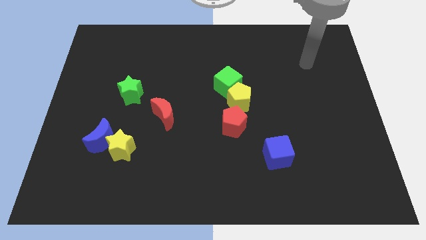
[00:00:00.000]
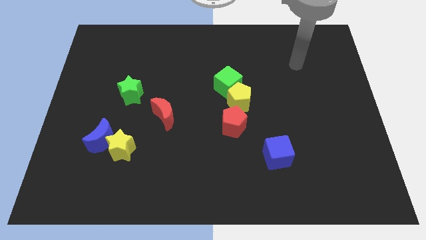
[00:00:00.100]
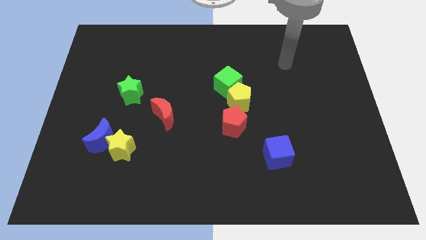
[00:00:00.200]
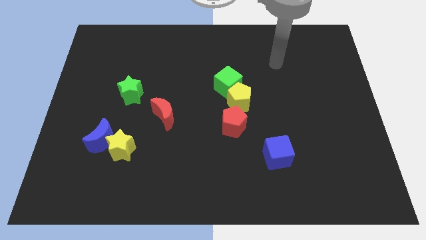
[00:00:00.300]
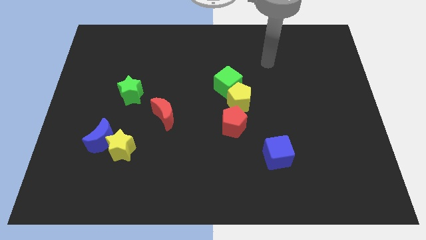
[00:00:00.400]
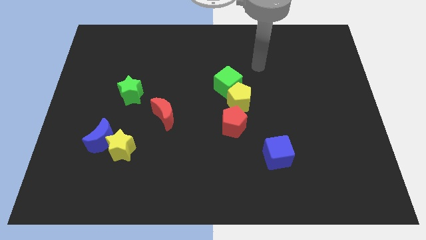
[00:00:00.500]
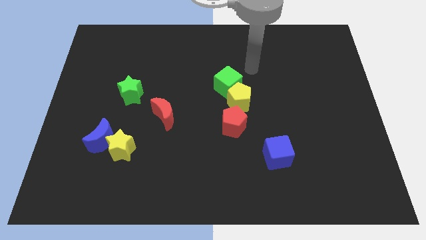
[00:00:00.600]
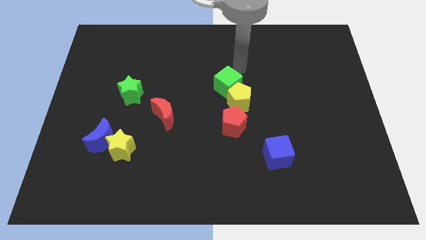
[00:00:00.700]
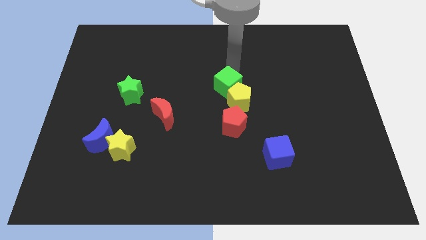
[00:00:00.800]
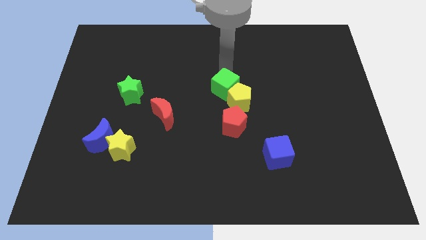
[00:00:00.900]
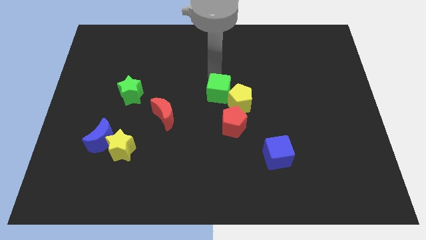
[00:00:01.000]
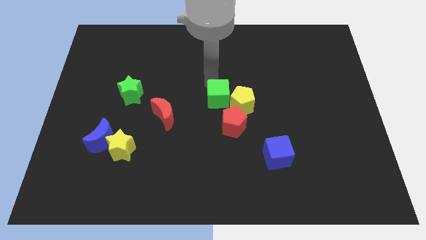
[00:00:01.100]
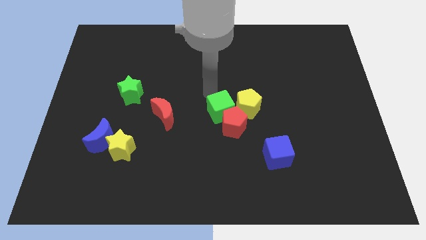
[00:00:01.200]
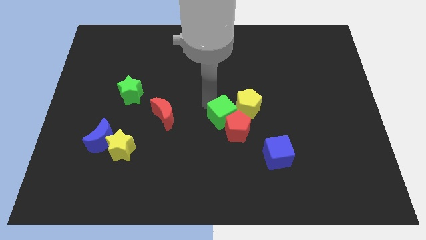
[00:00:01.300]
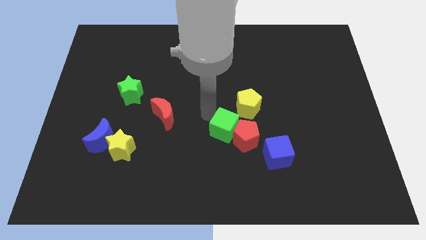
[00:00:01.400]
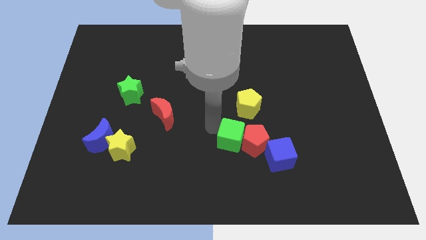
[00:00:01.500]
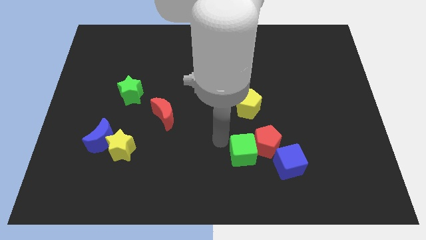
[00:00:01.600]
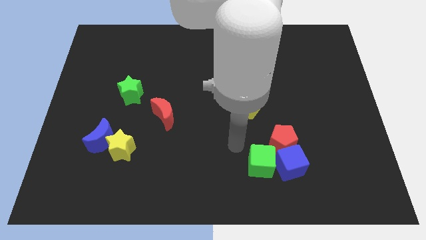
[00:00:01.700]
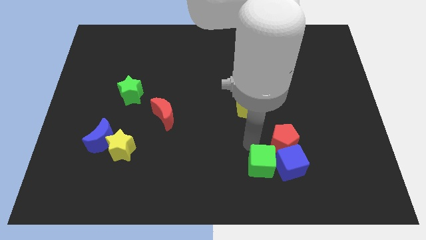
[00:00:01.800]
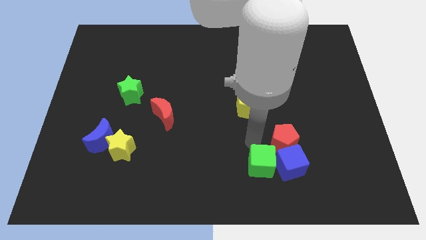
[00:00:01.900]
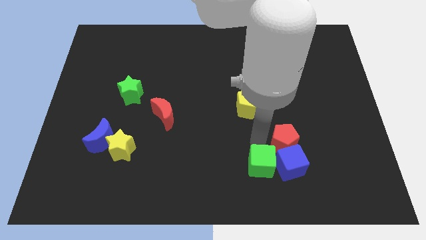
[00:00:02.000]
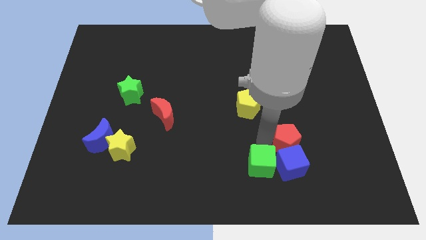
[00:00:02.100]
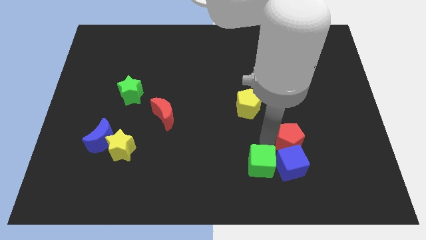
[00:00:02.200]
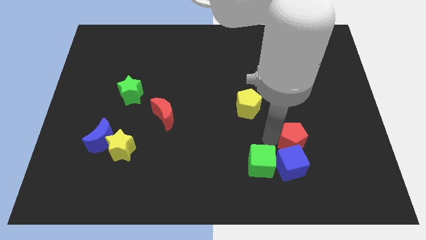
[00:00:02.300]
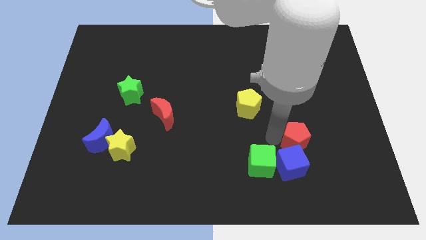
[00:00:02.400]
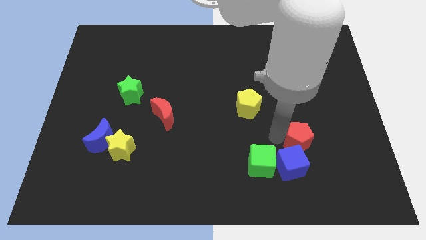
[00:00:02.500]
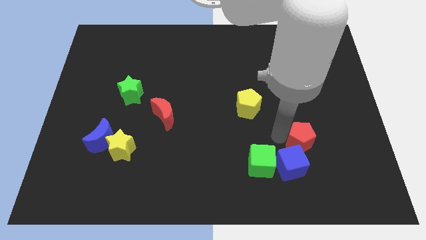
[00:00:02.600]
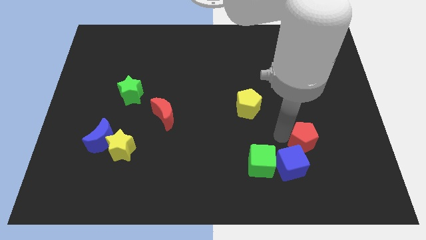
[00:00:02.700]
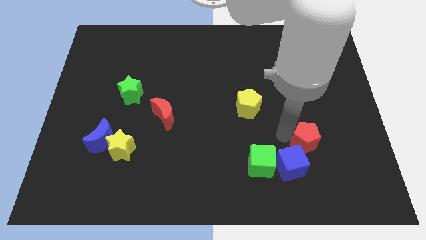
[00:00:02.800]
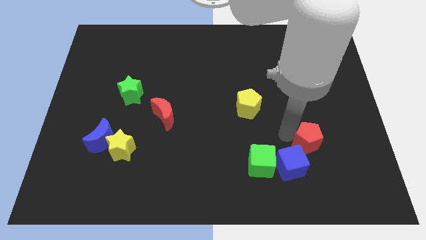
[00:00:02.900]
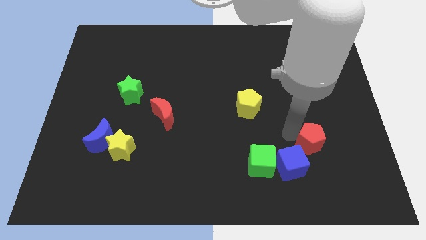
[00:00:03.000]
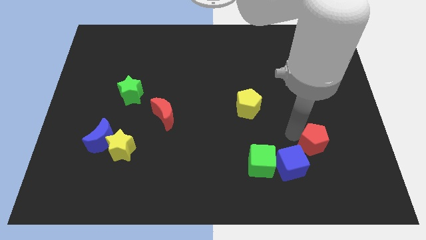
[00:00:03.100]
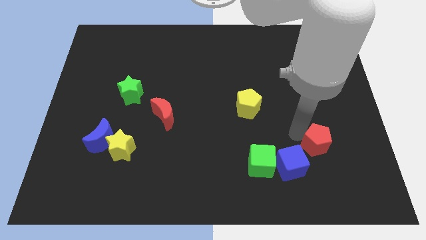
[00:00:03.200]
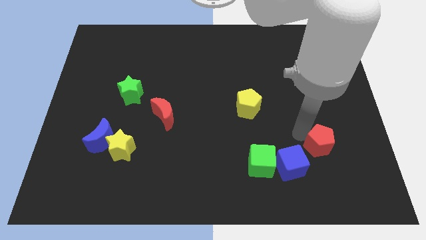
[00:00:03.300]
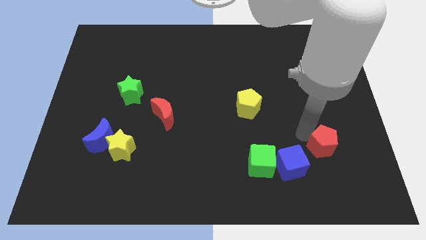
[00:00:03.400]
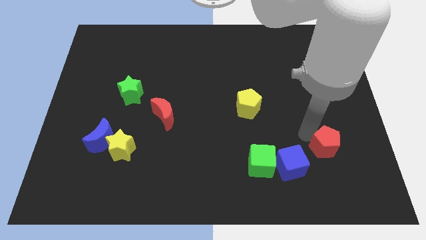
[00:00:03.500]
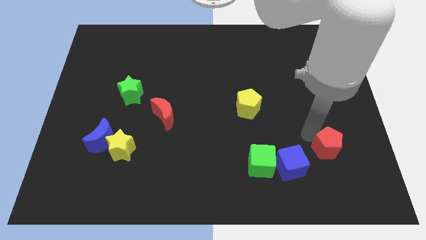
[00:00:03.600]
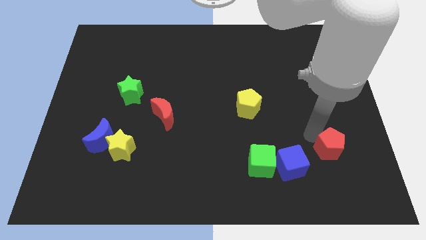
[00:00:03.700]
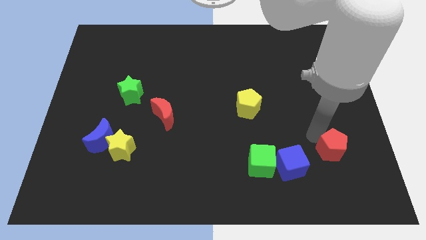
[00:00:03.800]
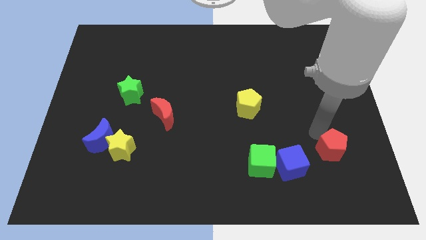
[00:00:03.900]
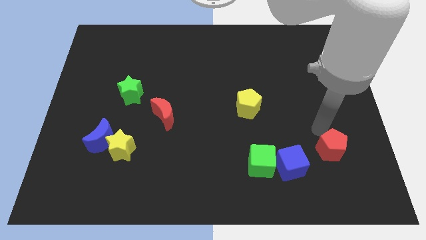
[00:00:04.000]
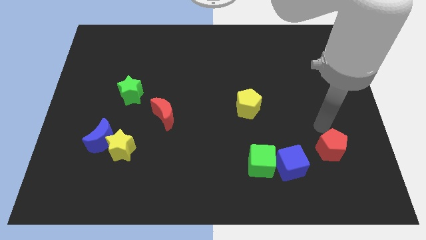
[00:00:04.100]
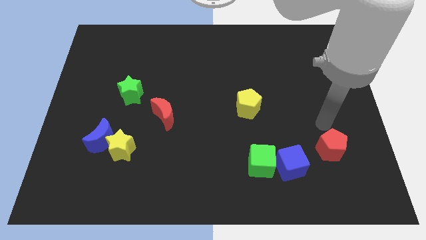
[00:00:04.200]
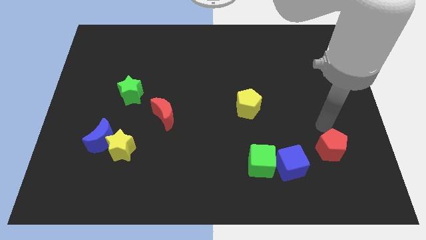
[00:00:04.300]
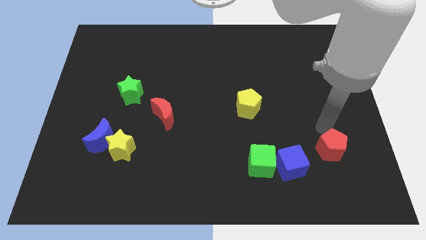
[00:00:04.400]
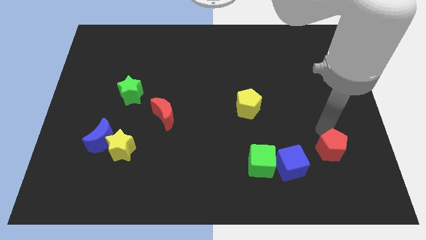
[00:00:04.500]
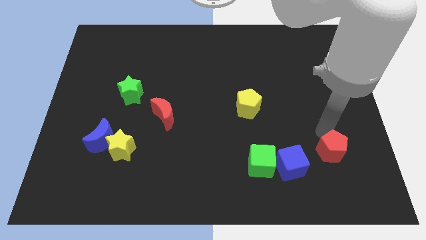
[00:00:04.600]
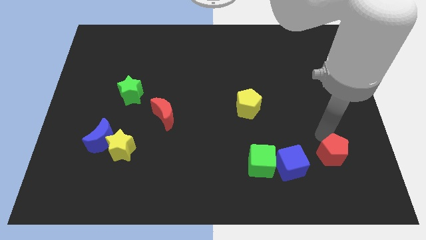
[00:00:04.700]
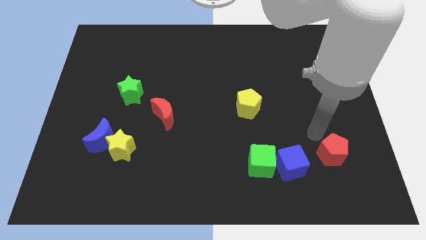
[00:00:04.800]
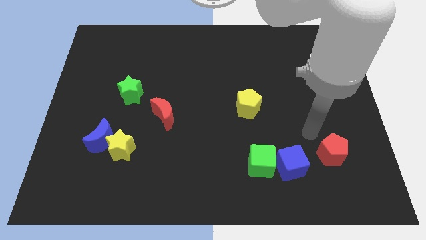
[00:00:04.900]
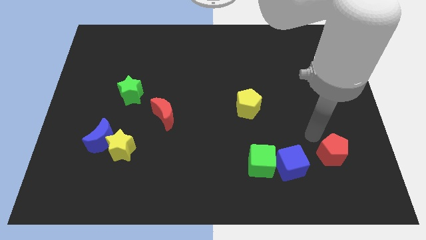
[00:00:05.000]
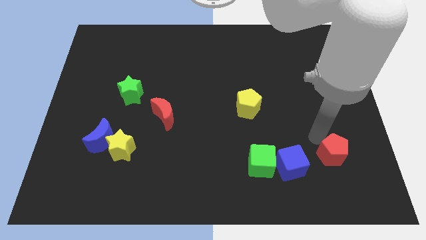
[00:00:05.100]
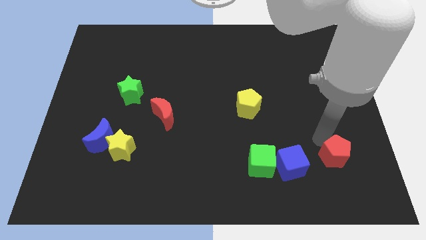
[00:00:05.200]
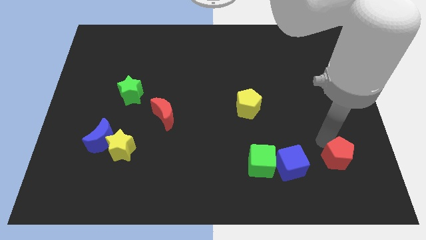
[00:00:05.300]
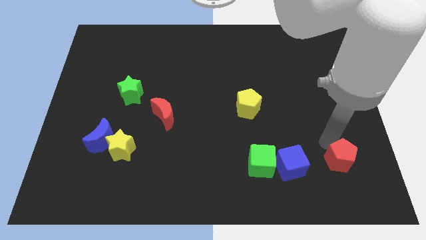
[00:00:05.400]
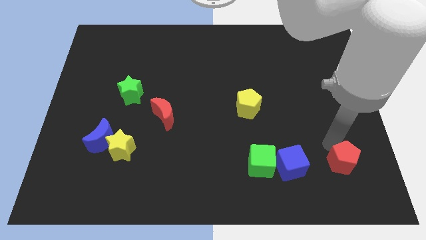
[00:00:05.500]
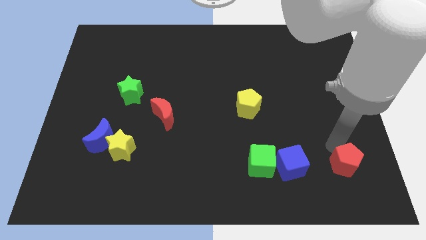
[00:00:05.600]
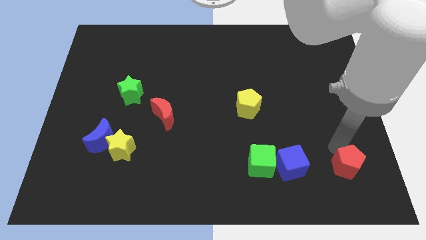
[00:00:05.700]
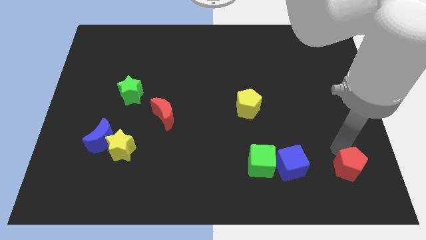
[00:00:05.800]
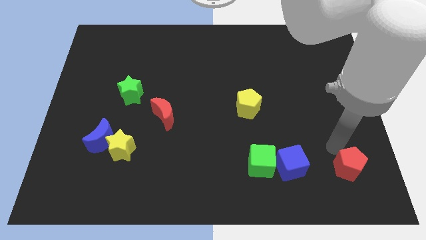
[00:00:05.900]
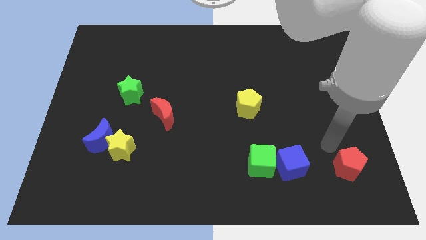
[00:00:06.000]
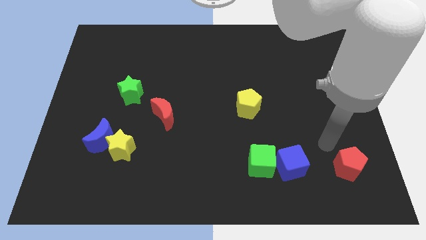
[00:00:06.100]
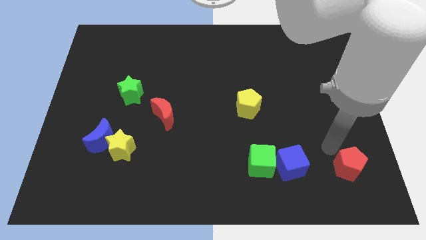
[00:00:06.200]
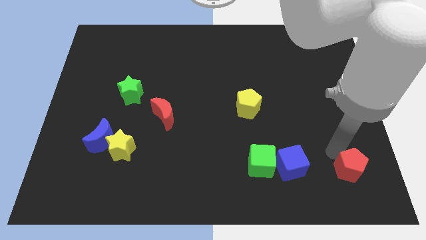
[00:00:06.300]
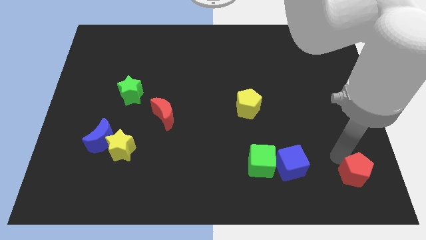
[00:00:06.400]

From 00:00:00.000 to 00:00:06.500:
push the red pentagon to the bottom right of the board
